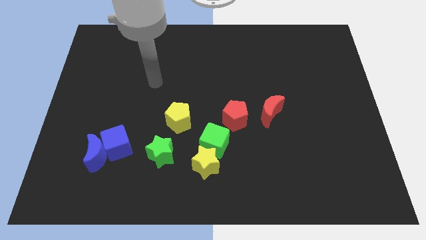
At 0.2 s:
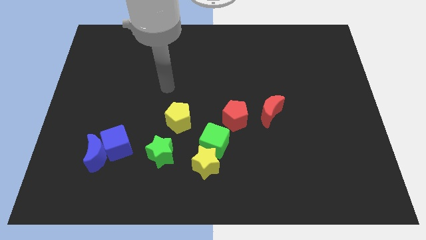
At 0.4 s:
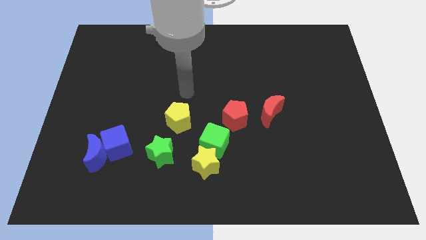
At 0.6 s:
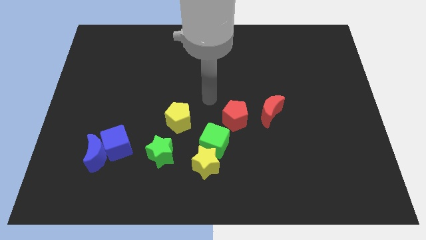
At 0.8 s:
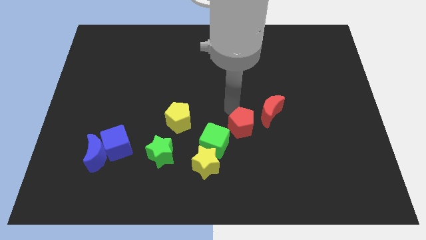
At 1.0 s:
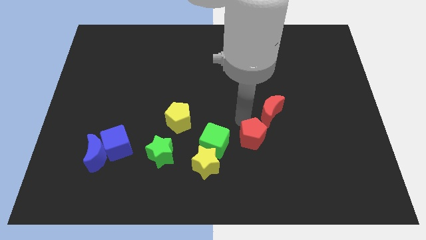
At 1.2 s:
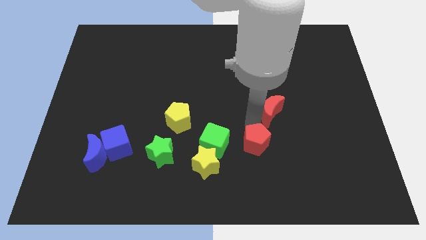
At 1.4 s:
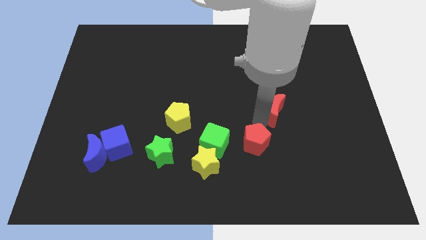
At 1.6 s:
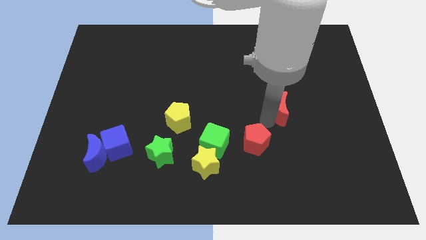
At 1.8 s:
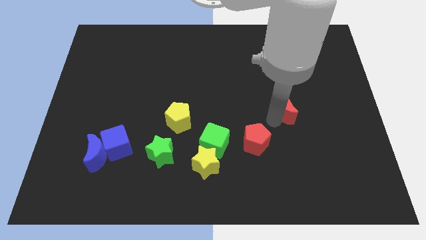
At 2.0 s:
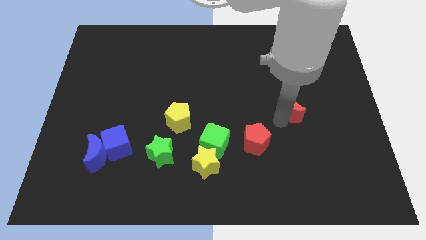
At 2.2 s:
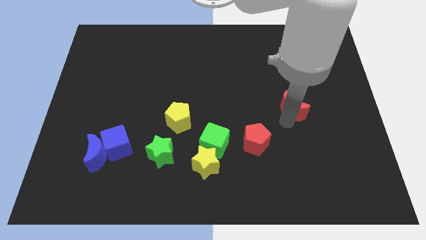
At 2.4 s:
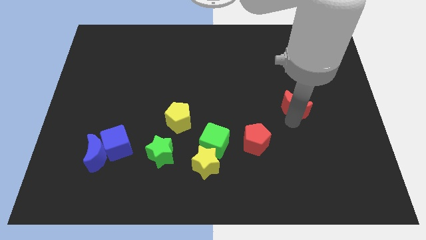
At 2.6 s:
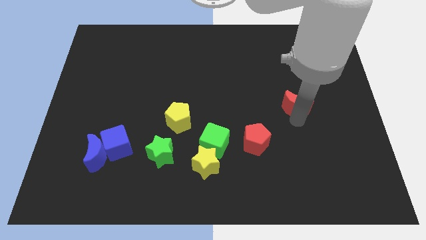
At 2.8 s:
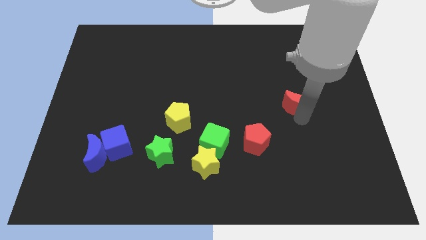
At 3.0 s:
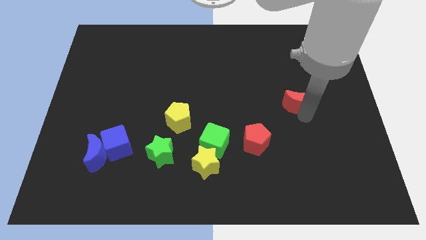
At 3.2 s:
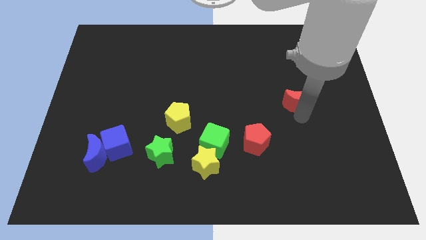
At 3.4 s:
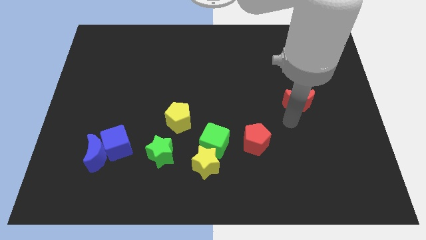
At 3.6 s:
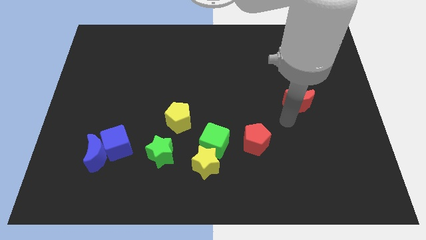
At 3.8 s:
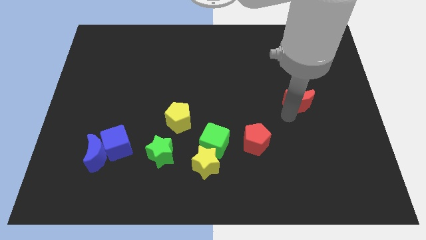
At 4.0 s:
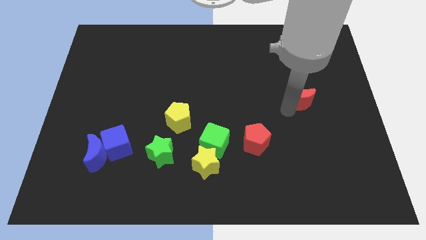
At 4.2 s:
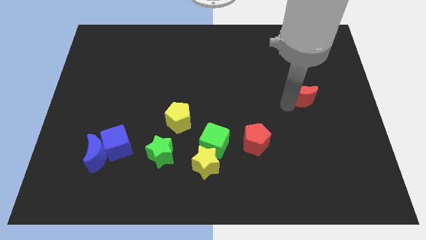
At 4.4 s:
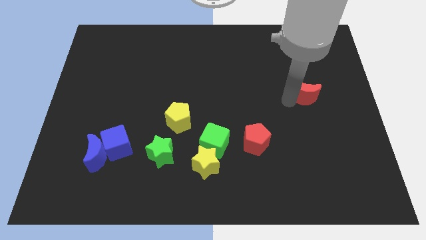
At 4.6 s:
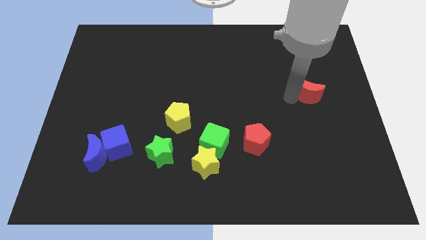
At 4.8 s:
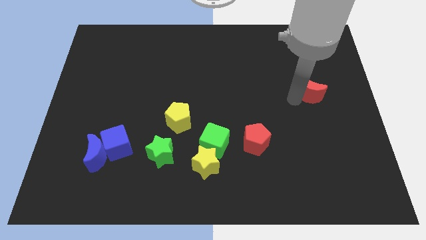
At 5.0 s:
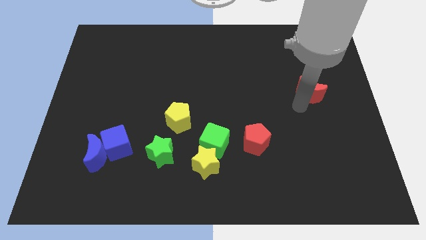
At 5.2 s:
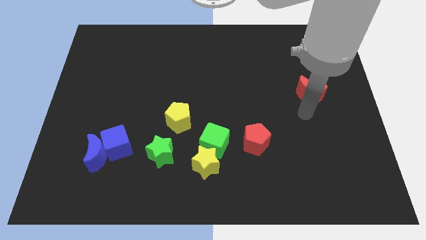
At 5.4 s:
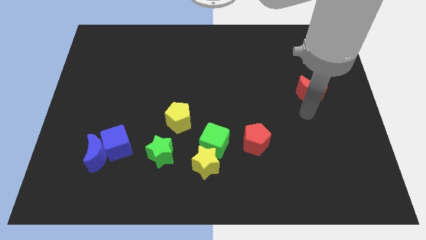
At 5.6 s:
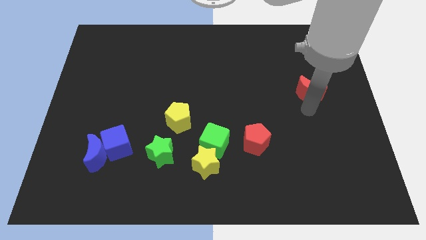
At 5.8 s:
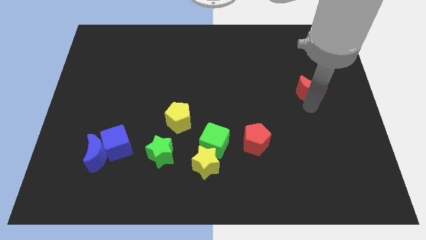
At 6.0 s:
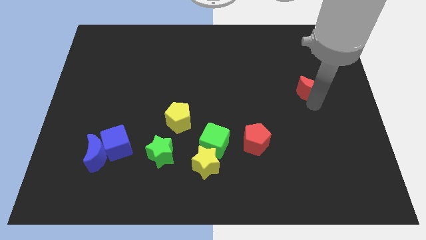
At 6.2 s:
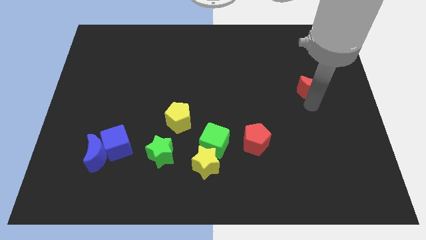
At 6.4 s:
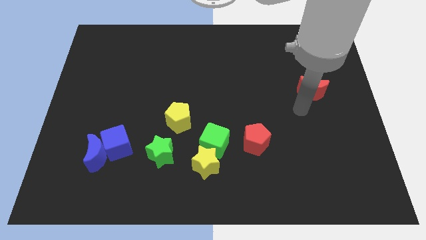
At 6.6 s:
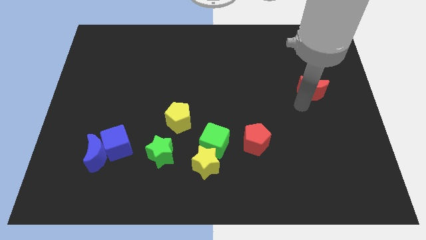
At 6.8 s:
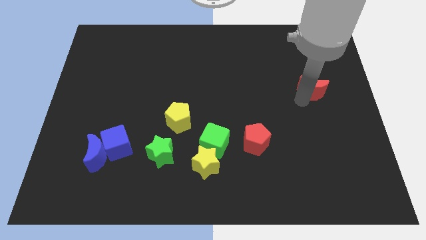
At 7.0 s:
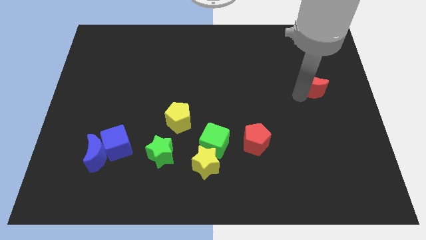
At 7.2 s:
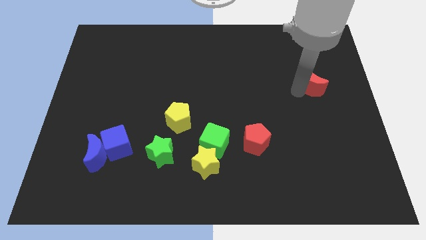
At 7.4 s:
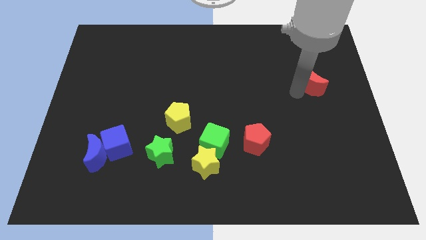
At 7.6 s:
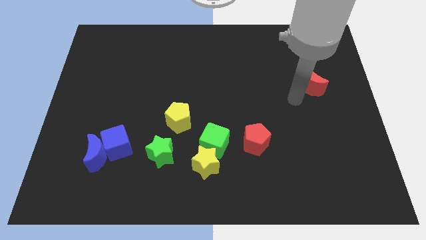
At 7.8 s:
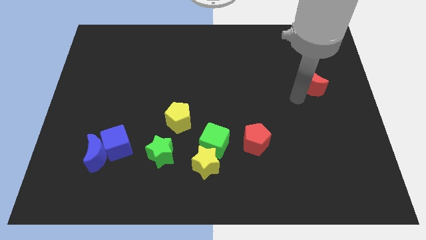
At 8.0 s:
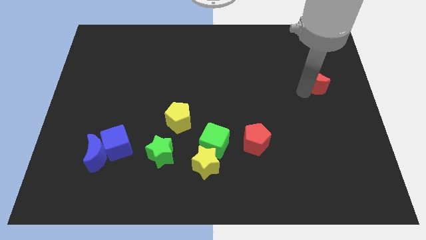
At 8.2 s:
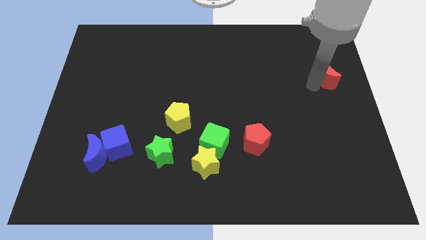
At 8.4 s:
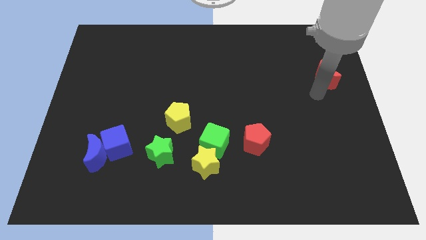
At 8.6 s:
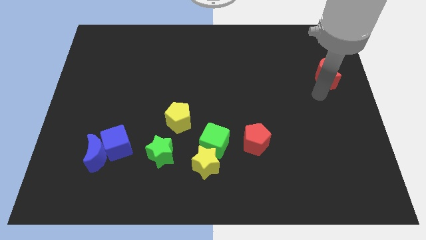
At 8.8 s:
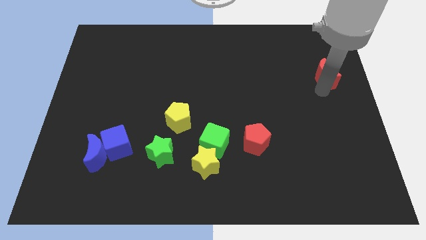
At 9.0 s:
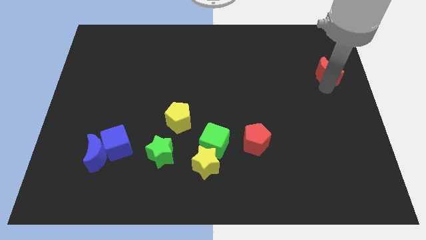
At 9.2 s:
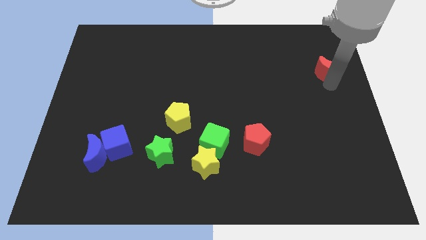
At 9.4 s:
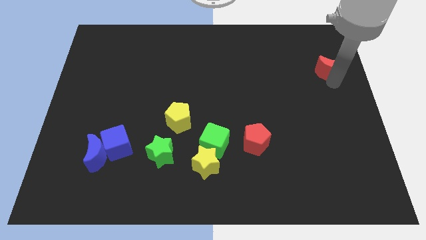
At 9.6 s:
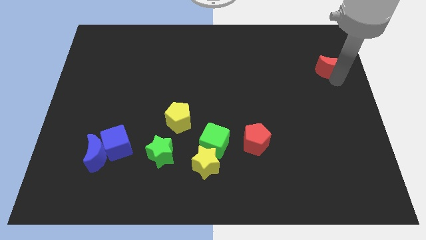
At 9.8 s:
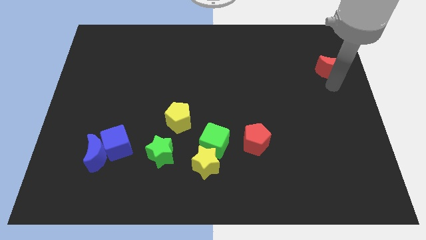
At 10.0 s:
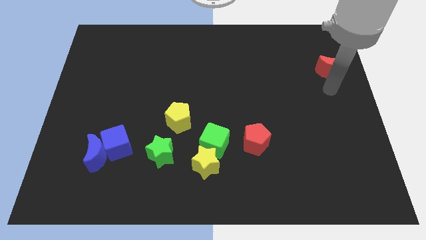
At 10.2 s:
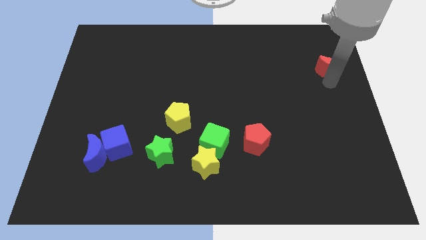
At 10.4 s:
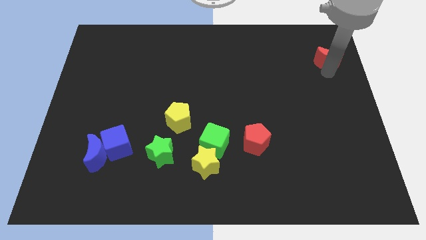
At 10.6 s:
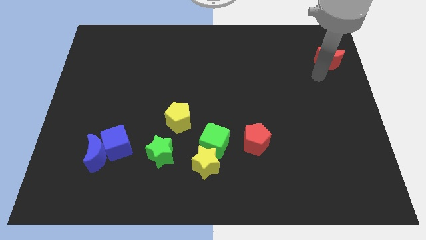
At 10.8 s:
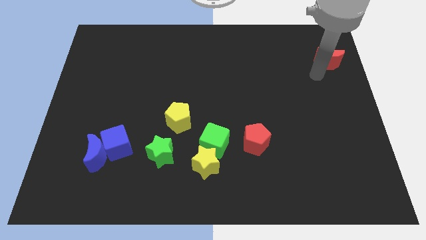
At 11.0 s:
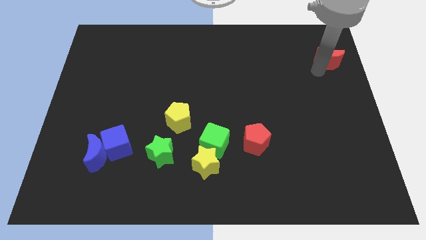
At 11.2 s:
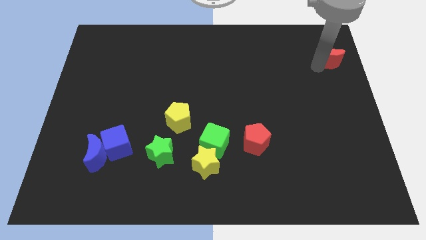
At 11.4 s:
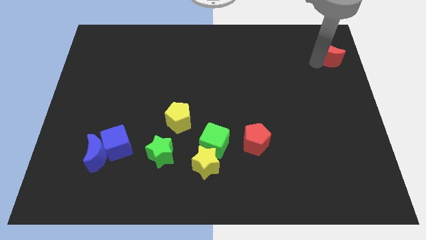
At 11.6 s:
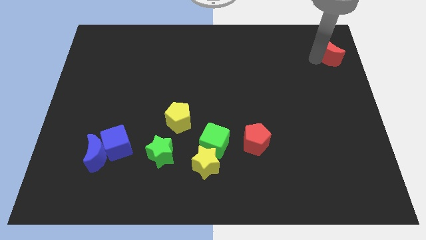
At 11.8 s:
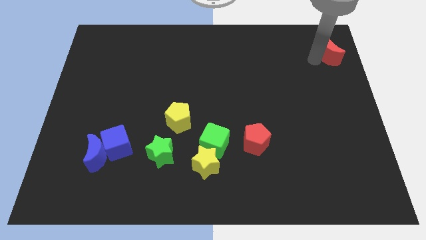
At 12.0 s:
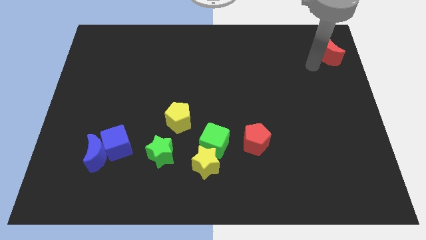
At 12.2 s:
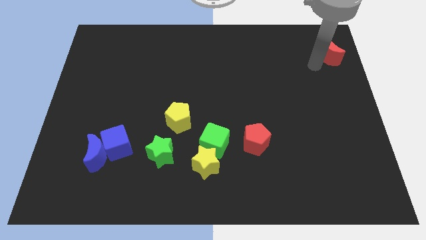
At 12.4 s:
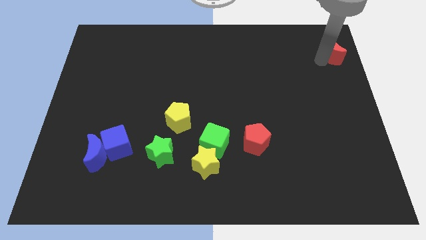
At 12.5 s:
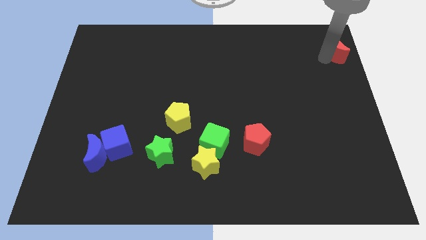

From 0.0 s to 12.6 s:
slide the red moon to the upper right corner
